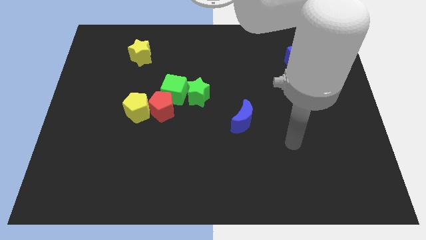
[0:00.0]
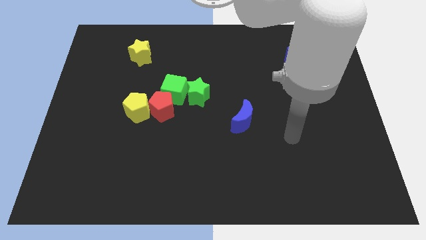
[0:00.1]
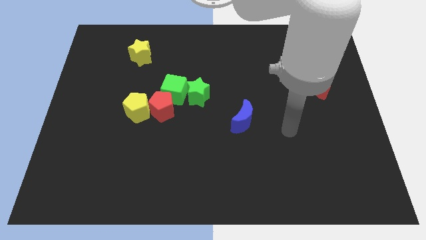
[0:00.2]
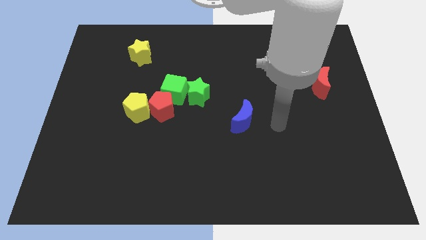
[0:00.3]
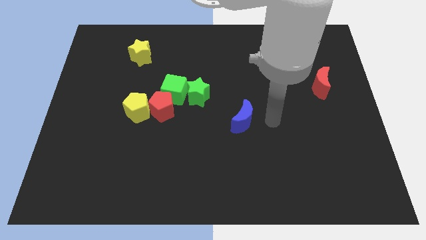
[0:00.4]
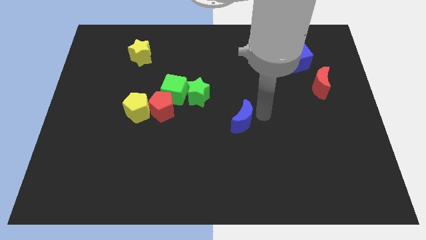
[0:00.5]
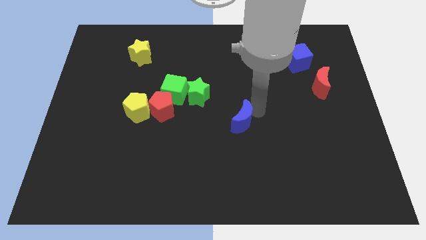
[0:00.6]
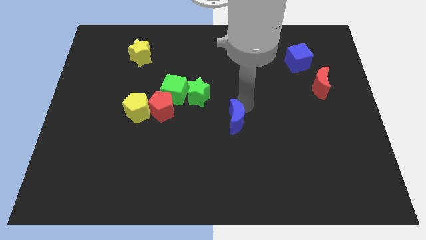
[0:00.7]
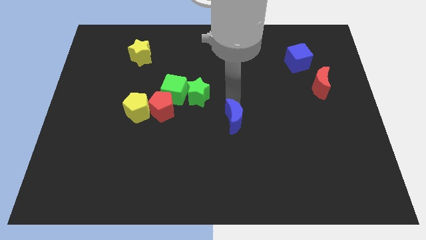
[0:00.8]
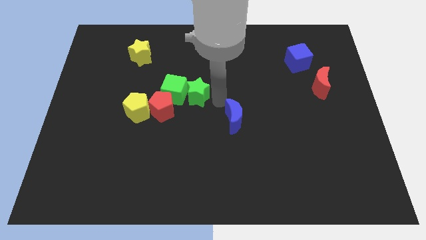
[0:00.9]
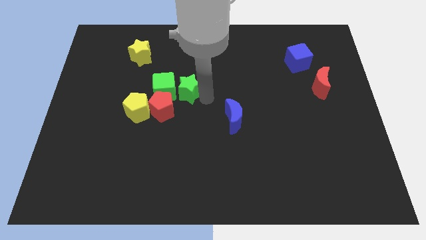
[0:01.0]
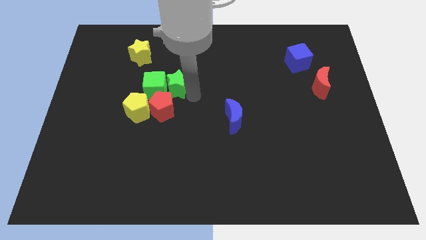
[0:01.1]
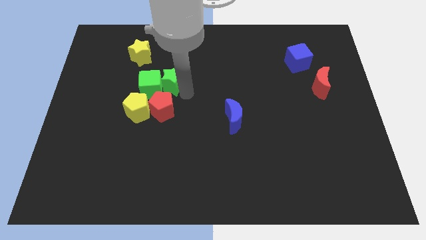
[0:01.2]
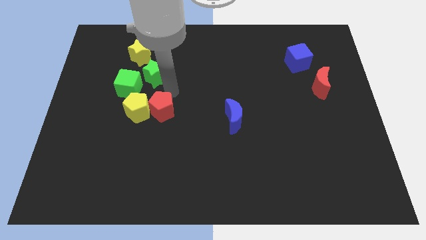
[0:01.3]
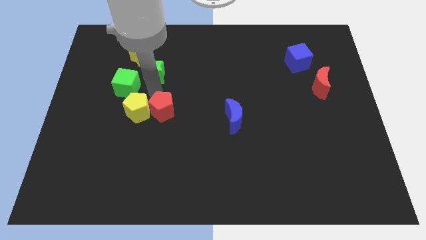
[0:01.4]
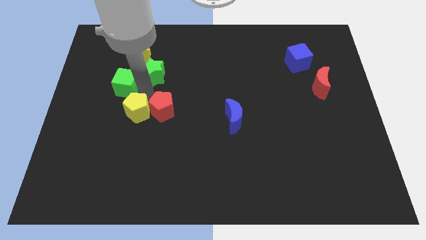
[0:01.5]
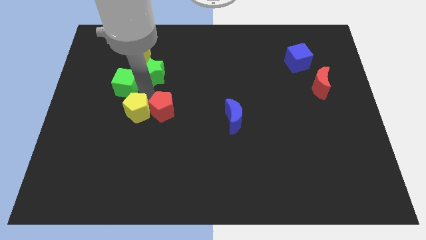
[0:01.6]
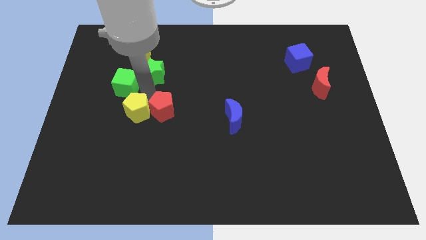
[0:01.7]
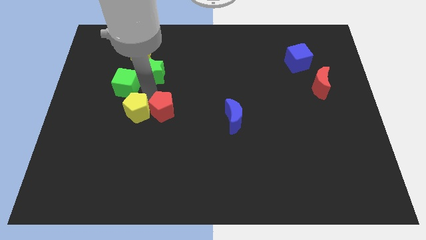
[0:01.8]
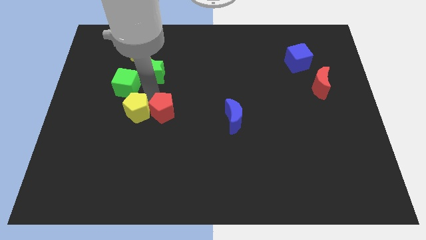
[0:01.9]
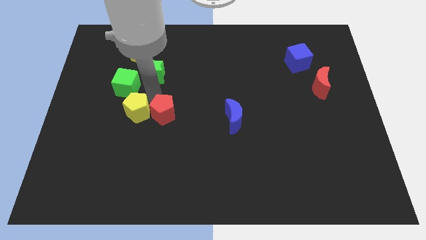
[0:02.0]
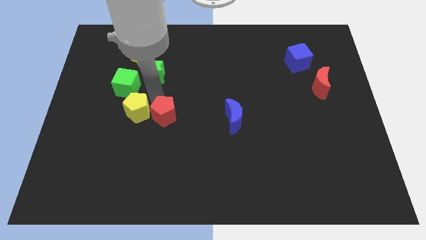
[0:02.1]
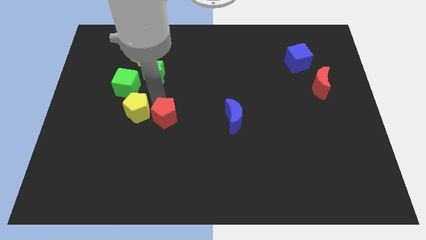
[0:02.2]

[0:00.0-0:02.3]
move the red pentagon away from the clump

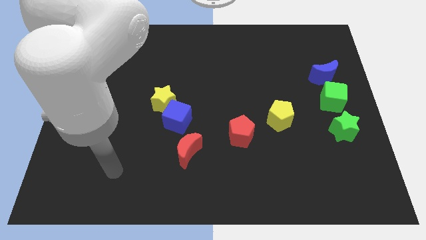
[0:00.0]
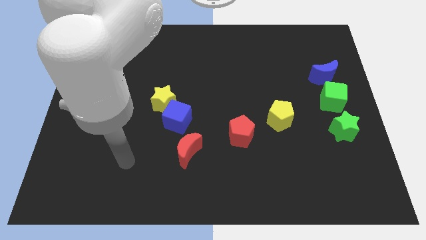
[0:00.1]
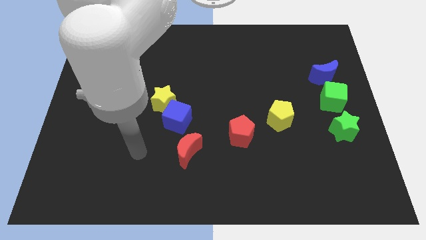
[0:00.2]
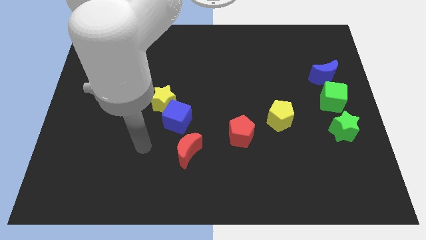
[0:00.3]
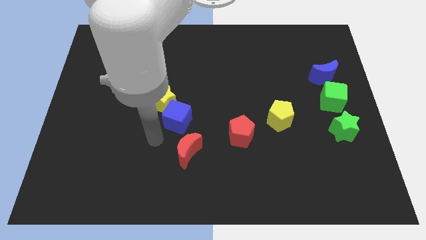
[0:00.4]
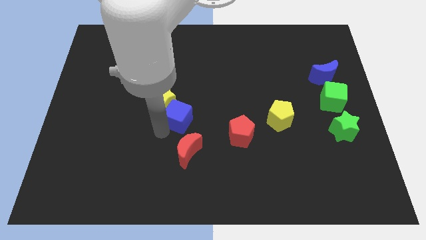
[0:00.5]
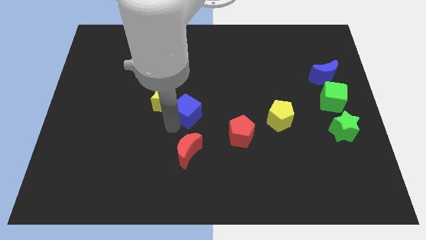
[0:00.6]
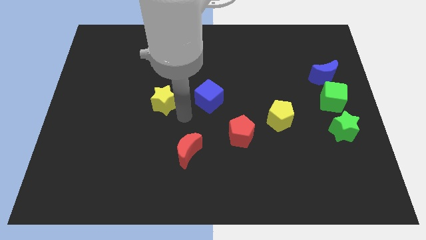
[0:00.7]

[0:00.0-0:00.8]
move the yellow star away from the blue cube

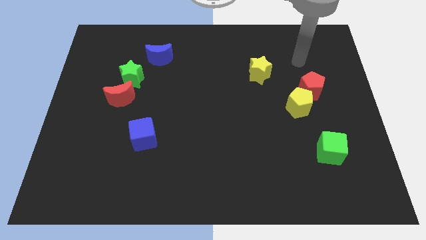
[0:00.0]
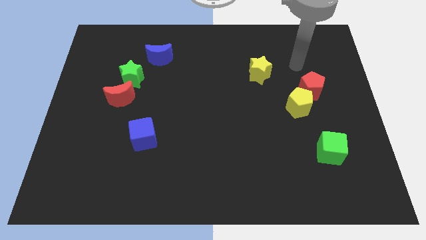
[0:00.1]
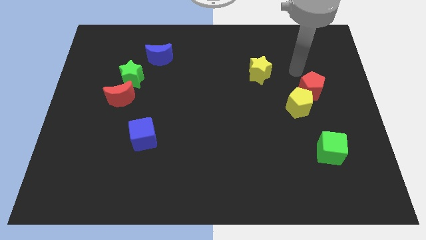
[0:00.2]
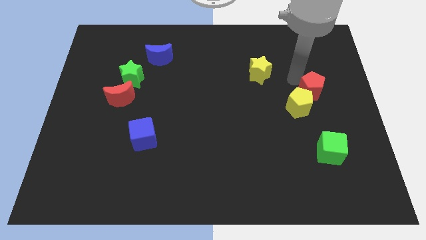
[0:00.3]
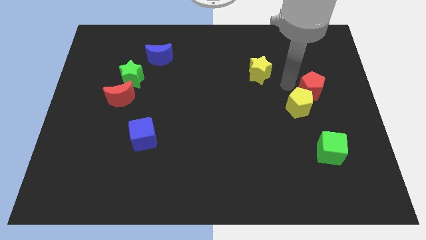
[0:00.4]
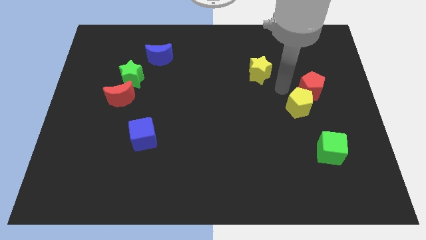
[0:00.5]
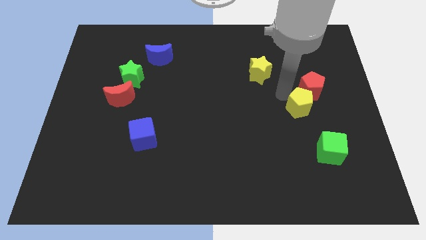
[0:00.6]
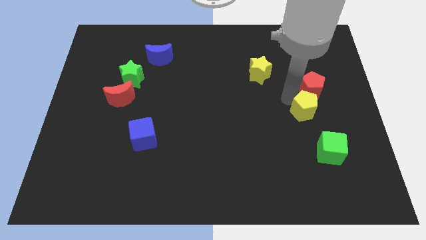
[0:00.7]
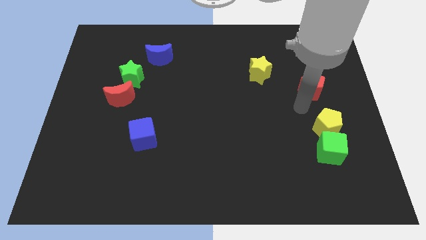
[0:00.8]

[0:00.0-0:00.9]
pull the red pentagon apart from the yellow pentagon

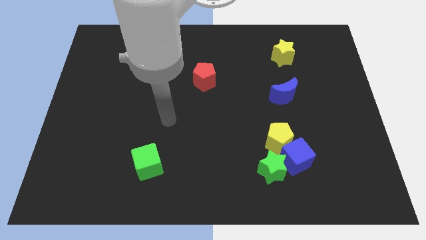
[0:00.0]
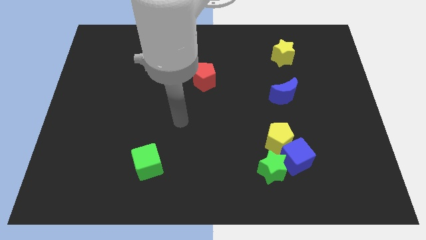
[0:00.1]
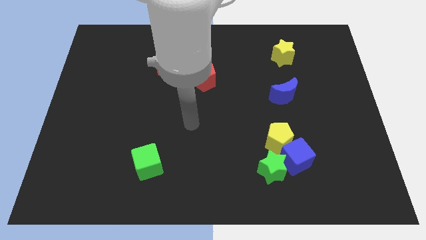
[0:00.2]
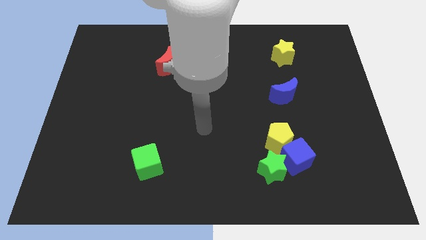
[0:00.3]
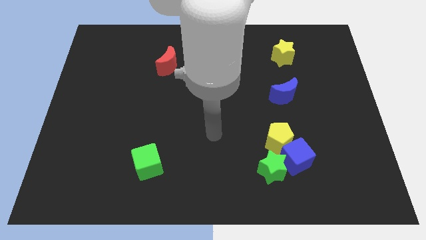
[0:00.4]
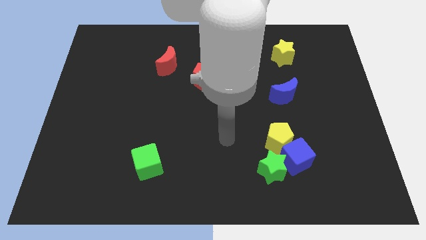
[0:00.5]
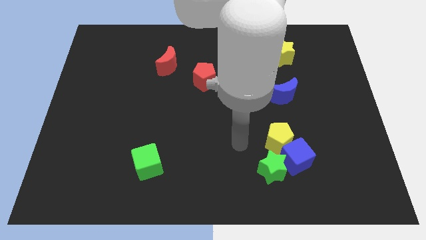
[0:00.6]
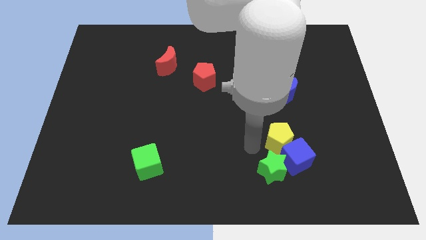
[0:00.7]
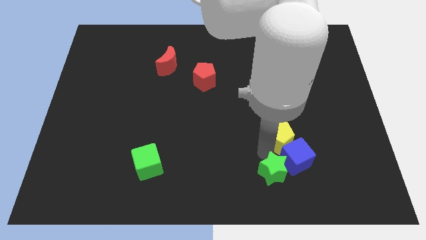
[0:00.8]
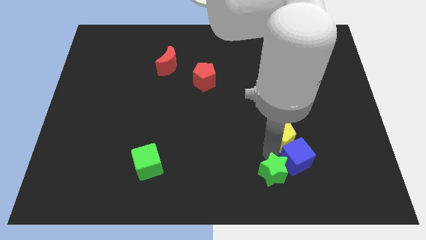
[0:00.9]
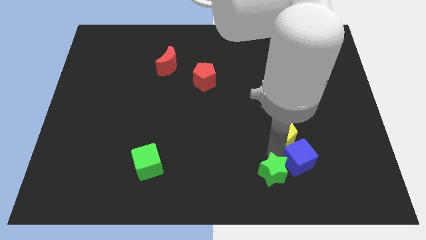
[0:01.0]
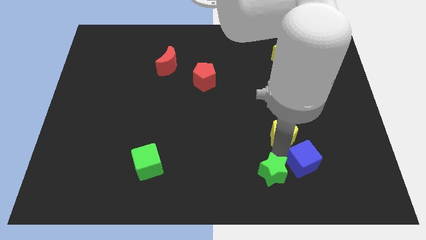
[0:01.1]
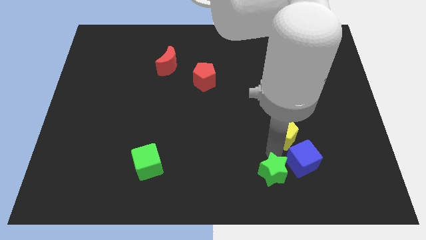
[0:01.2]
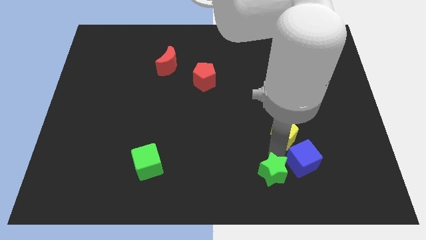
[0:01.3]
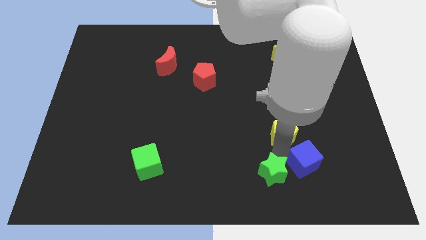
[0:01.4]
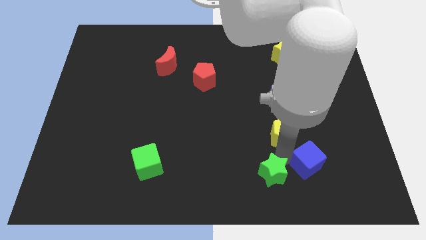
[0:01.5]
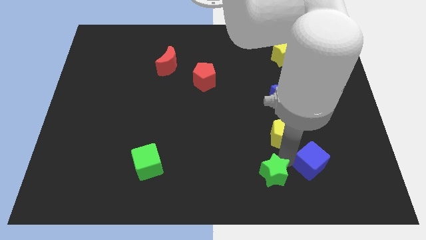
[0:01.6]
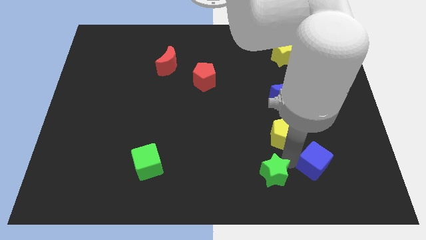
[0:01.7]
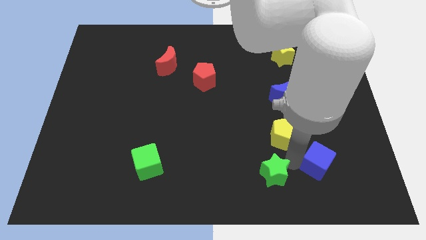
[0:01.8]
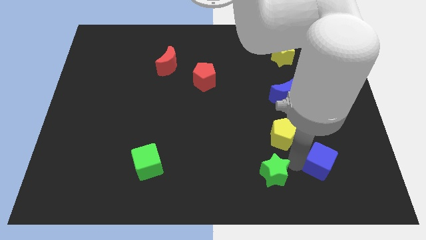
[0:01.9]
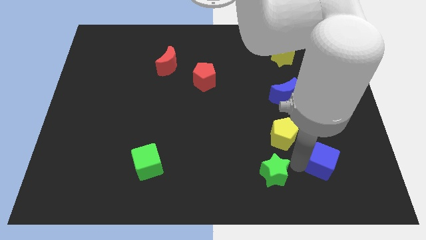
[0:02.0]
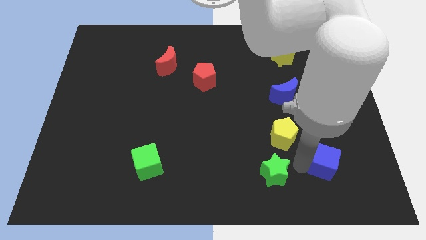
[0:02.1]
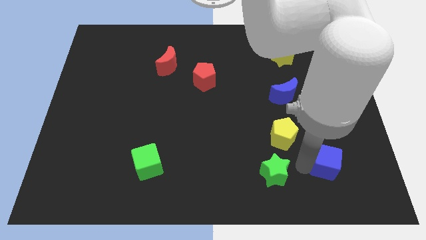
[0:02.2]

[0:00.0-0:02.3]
separate the blue cube from the yellow pentagon and green star

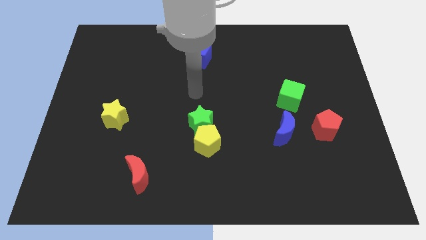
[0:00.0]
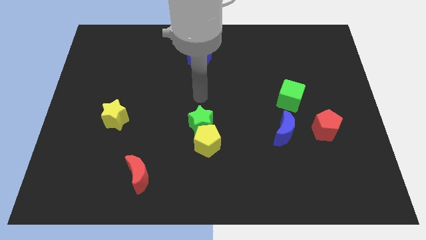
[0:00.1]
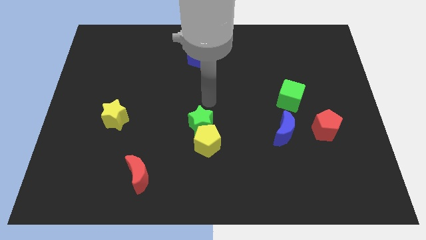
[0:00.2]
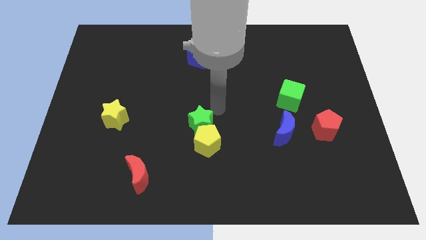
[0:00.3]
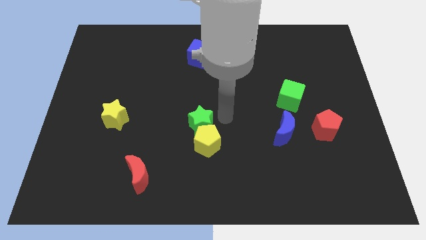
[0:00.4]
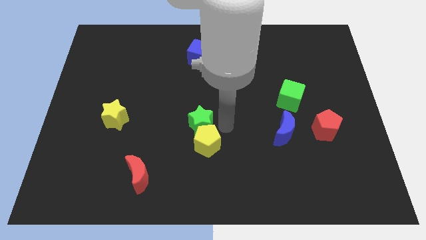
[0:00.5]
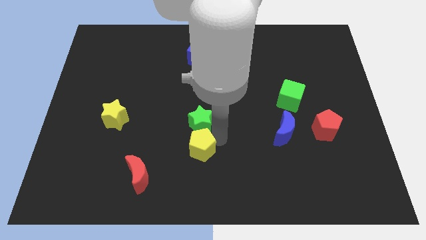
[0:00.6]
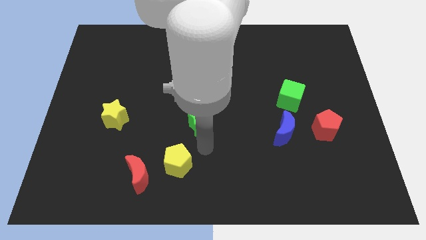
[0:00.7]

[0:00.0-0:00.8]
move the green star away from the yellow pentagon

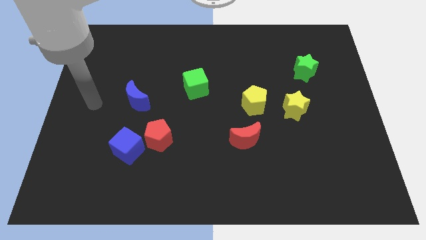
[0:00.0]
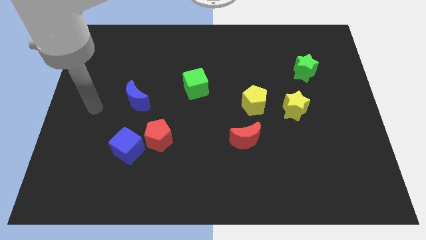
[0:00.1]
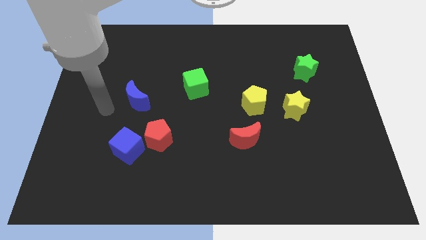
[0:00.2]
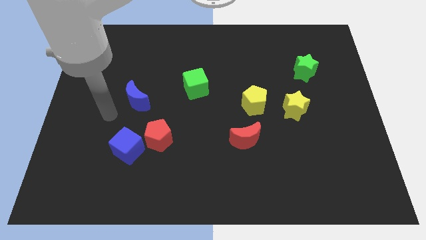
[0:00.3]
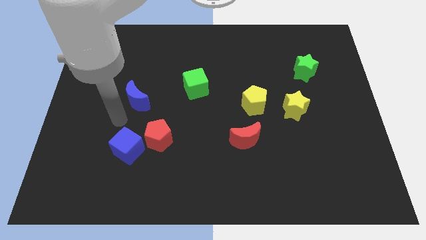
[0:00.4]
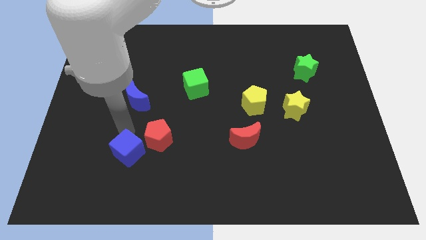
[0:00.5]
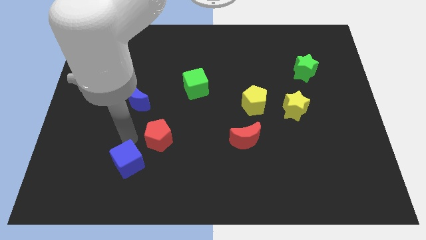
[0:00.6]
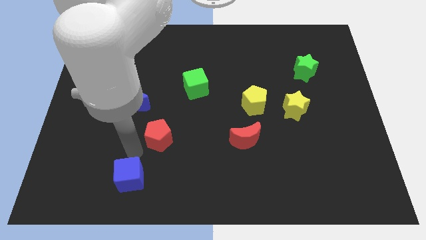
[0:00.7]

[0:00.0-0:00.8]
move the red pentagon away from the blue cube

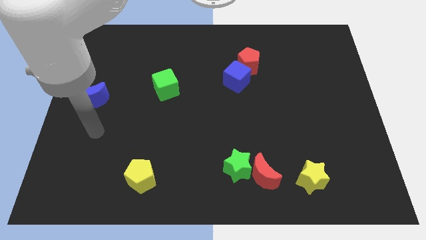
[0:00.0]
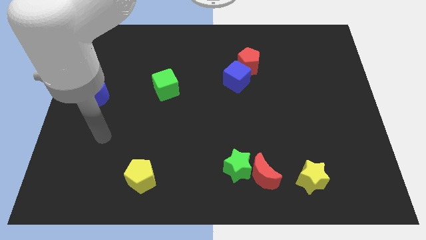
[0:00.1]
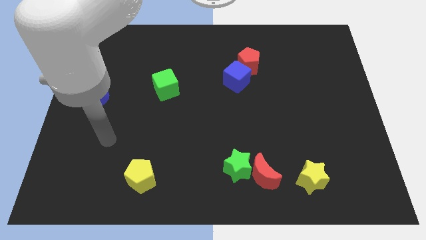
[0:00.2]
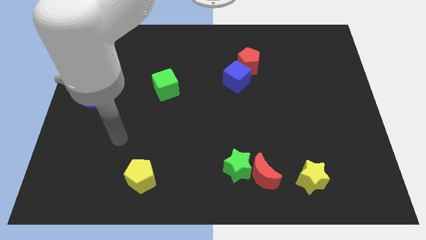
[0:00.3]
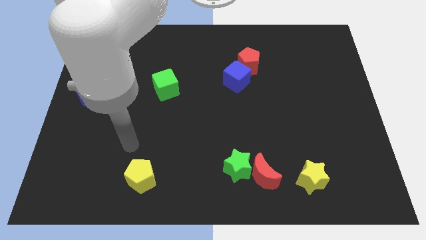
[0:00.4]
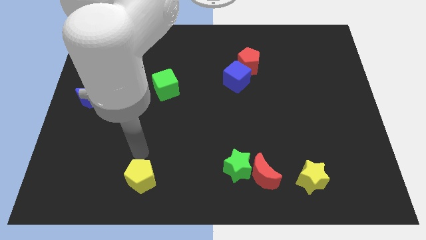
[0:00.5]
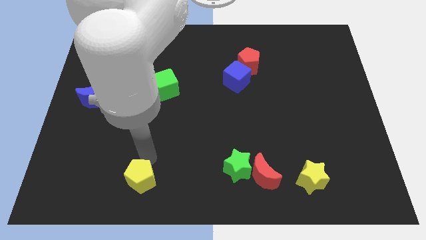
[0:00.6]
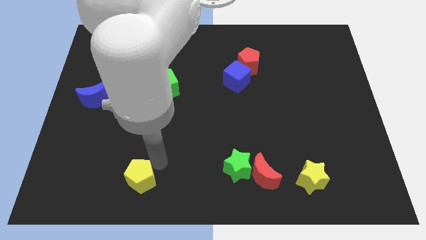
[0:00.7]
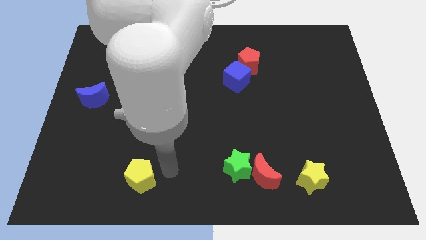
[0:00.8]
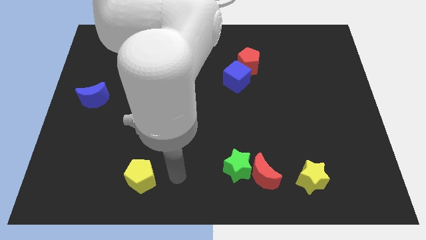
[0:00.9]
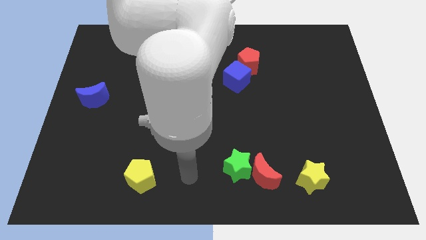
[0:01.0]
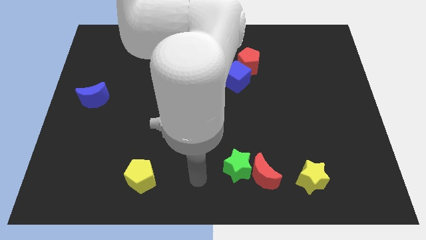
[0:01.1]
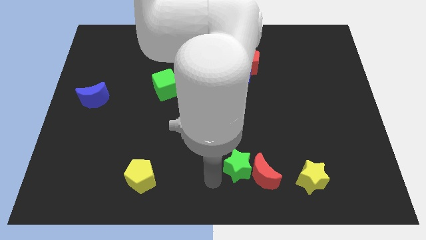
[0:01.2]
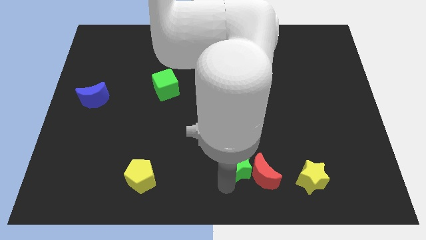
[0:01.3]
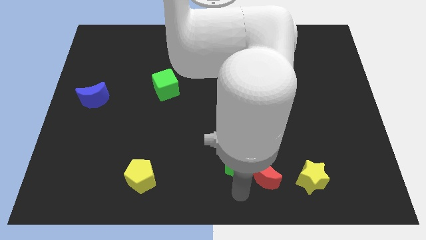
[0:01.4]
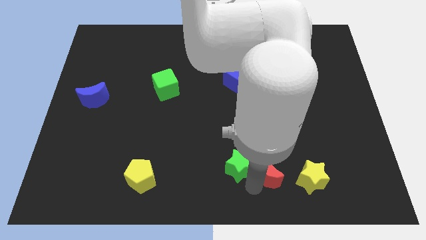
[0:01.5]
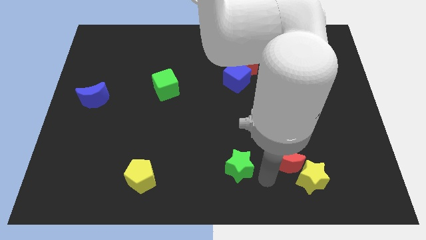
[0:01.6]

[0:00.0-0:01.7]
separate the green star from the red moon
